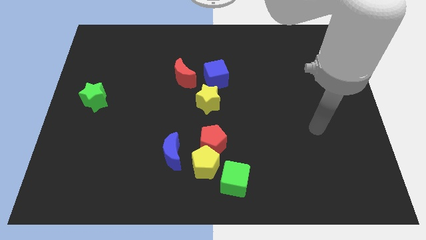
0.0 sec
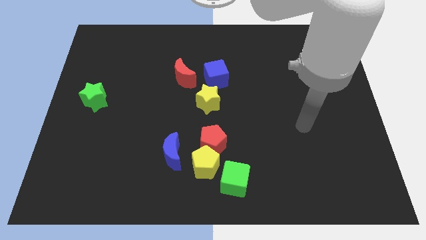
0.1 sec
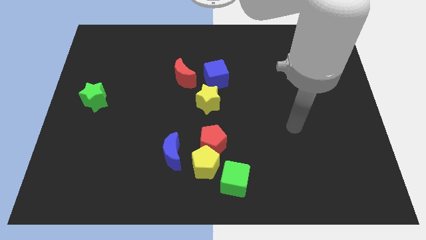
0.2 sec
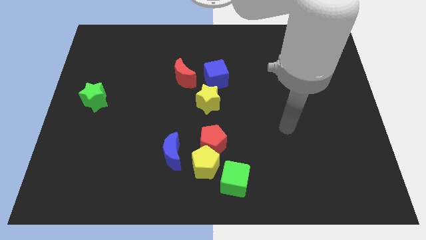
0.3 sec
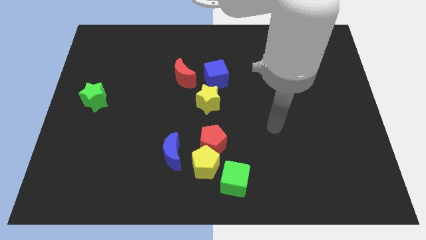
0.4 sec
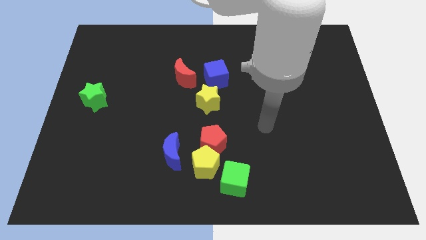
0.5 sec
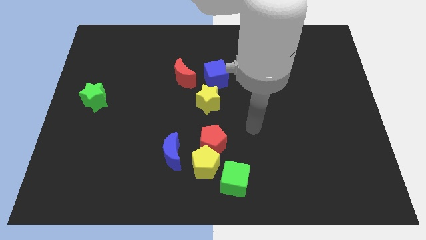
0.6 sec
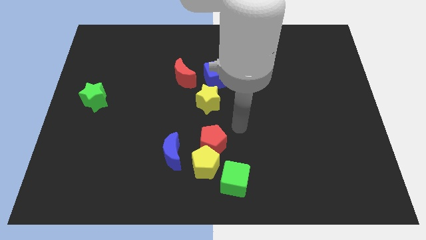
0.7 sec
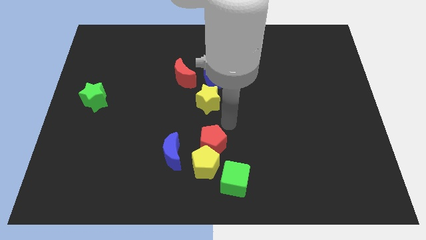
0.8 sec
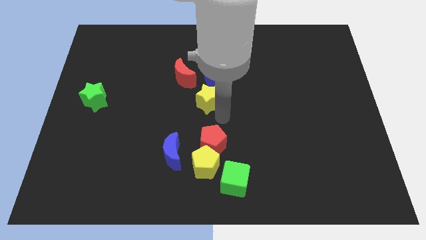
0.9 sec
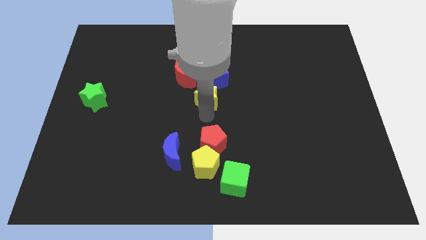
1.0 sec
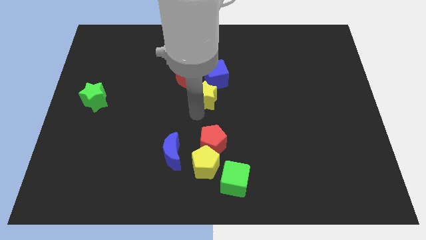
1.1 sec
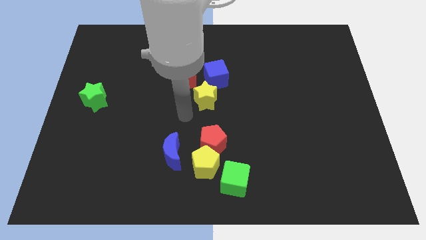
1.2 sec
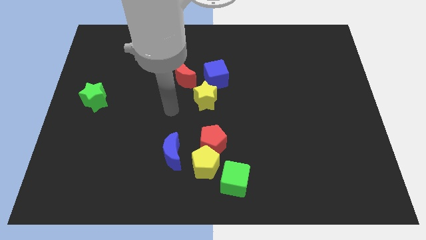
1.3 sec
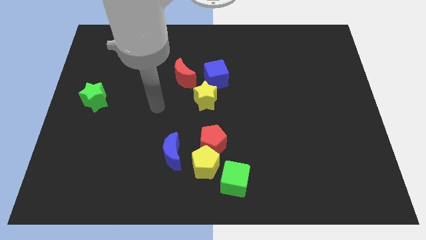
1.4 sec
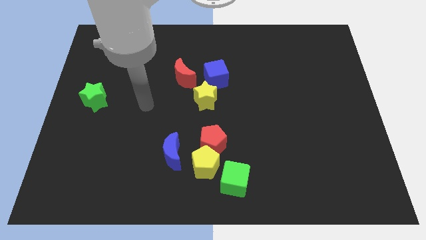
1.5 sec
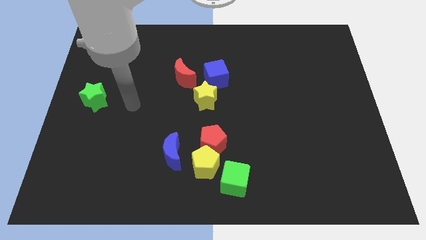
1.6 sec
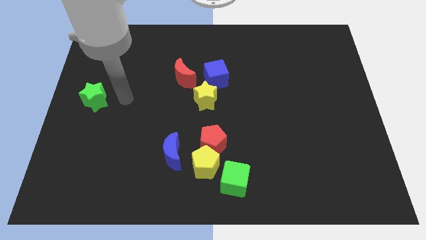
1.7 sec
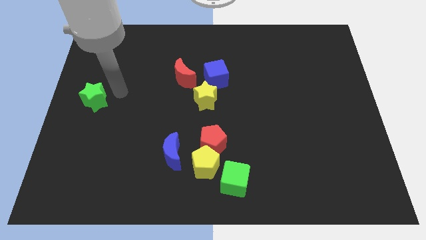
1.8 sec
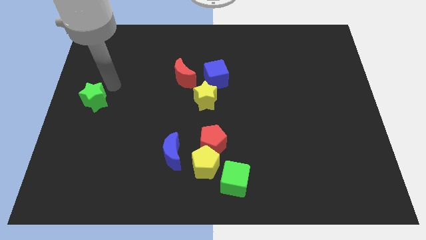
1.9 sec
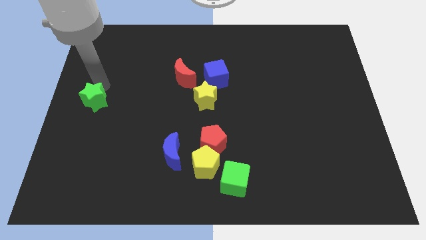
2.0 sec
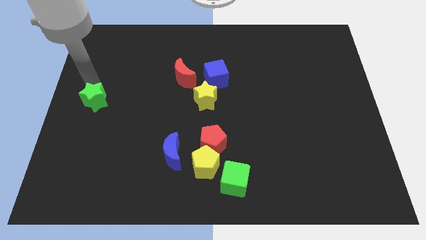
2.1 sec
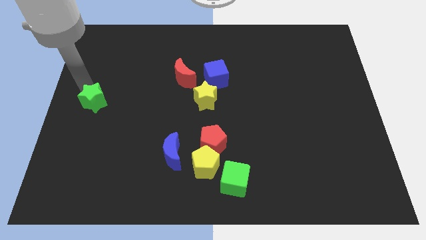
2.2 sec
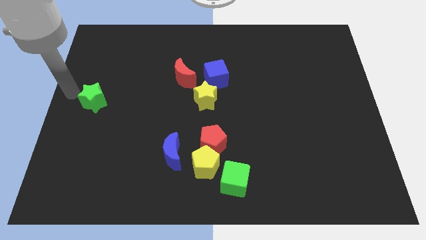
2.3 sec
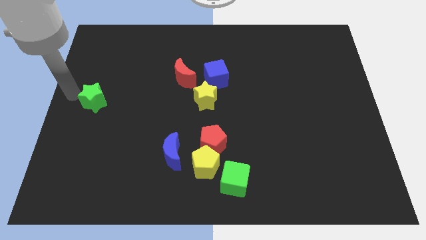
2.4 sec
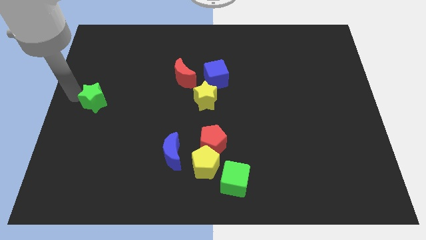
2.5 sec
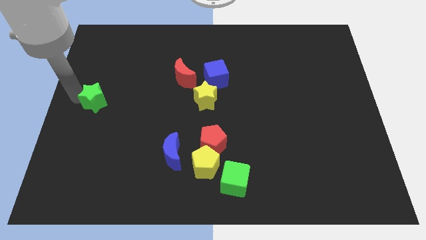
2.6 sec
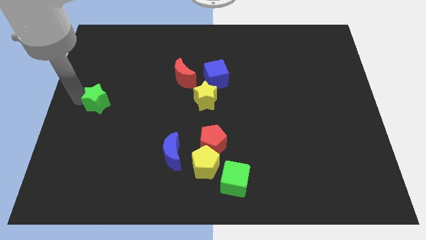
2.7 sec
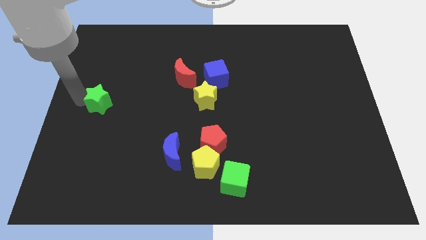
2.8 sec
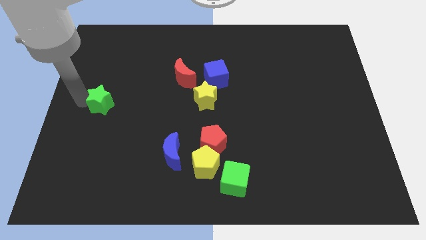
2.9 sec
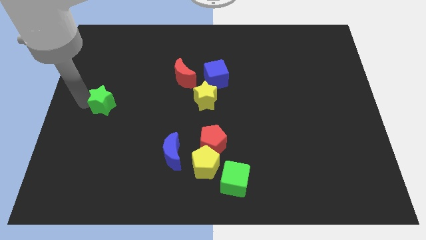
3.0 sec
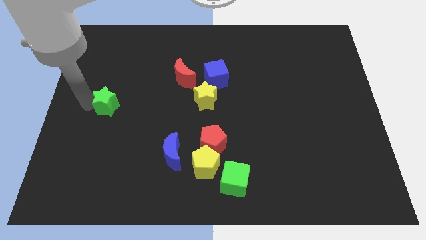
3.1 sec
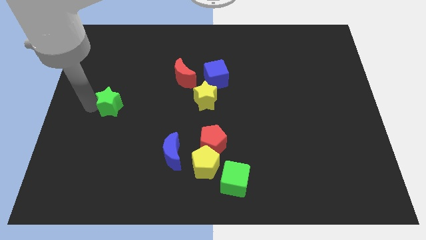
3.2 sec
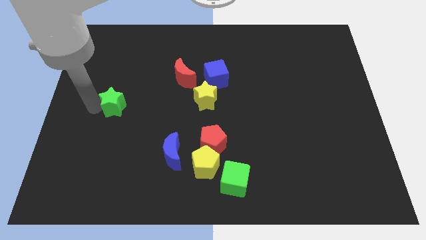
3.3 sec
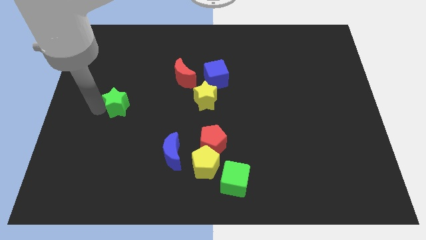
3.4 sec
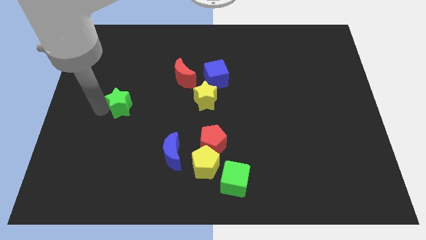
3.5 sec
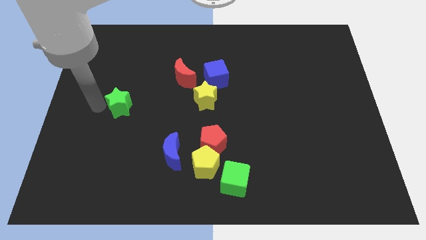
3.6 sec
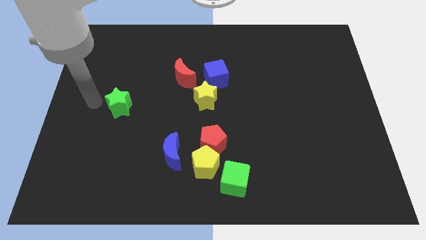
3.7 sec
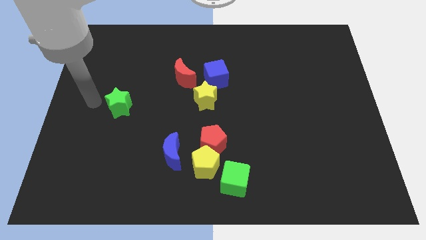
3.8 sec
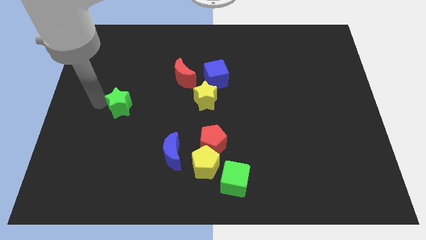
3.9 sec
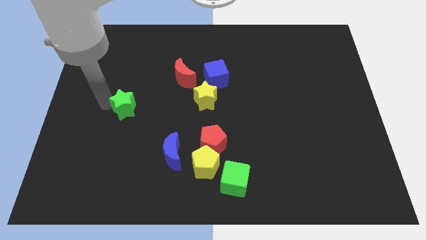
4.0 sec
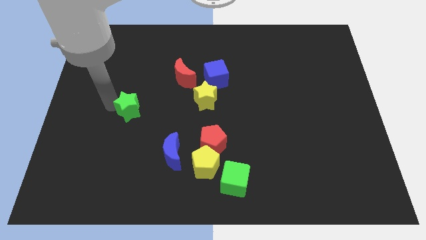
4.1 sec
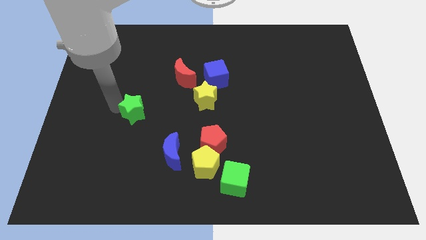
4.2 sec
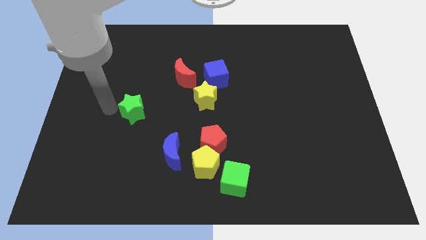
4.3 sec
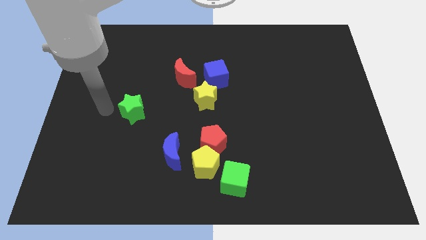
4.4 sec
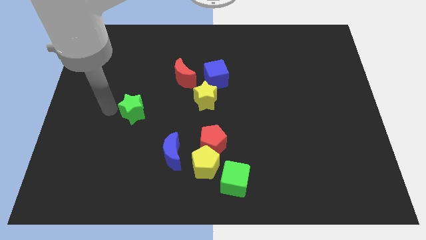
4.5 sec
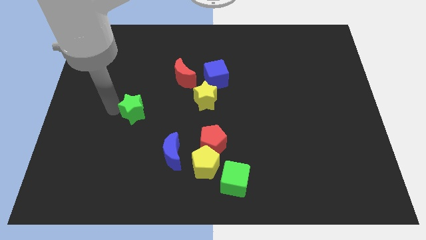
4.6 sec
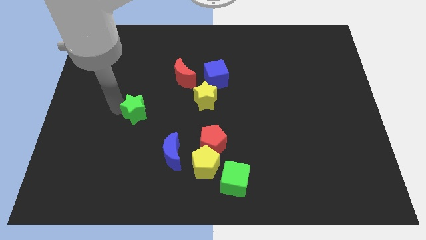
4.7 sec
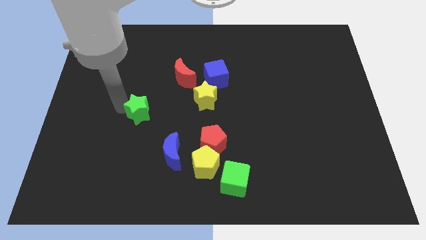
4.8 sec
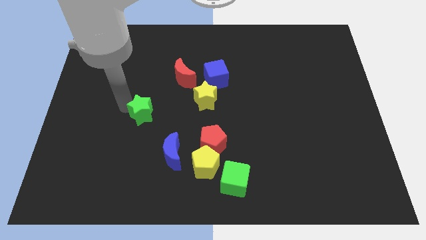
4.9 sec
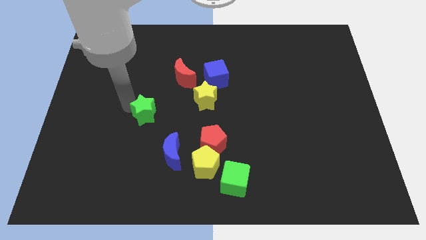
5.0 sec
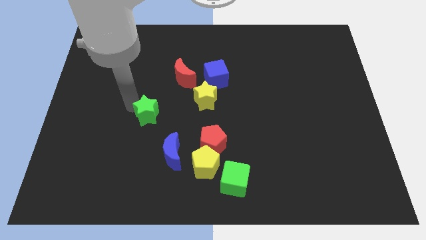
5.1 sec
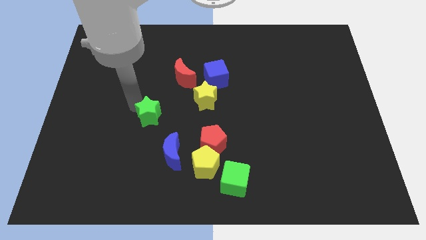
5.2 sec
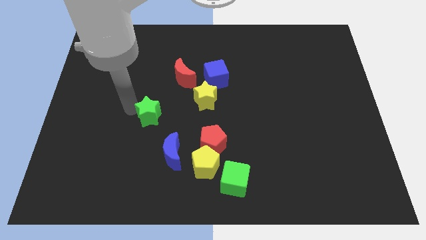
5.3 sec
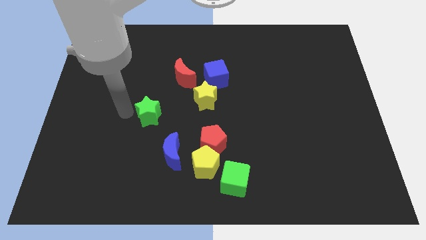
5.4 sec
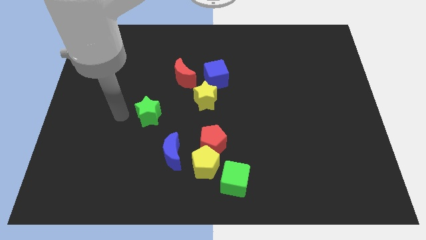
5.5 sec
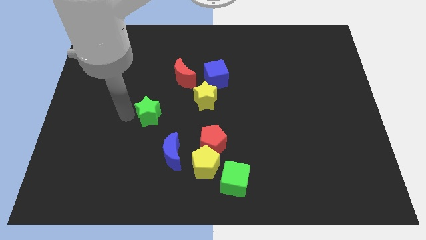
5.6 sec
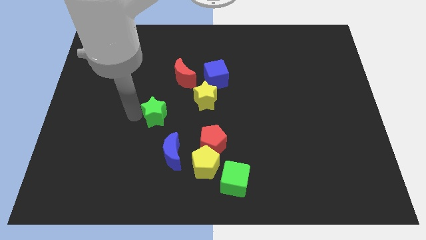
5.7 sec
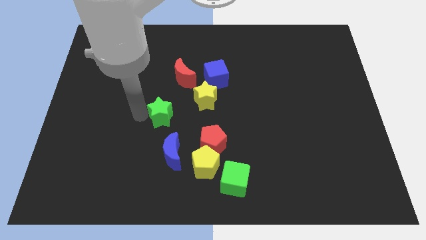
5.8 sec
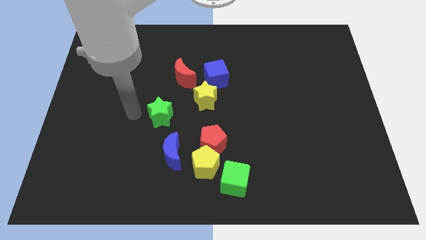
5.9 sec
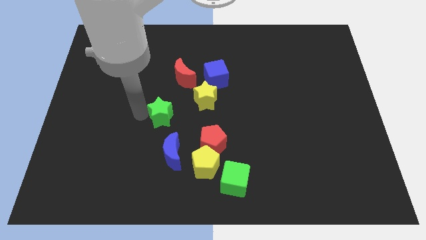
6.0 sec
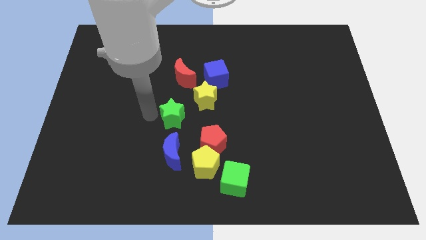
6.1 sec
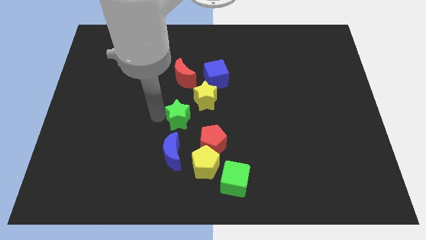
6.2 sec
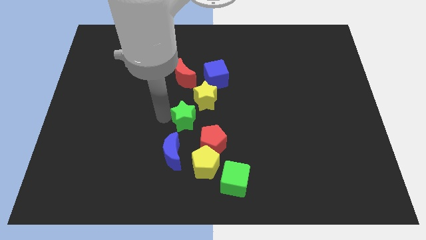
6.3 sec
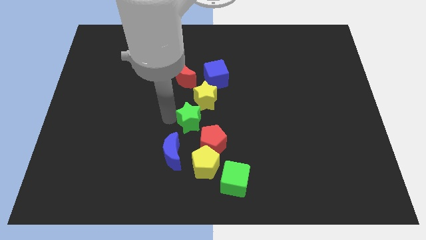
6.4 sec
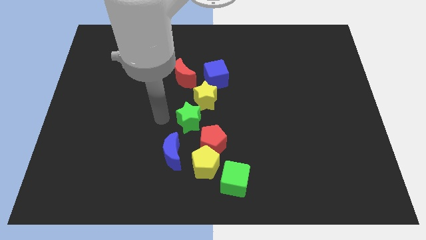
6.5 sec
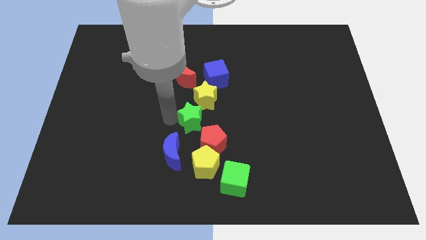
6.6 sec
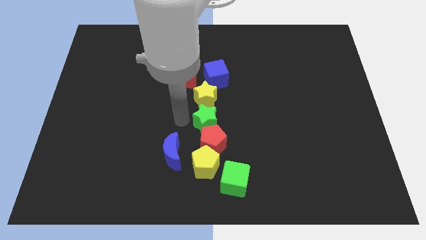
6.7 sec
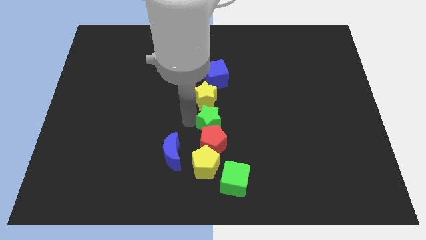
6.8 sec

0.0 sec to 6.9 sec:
put the green star to the top right of the red pentagon
